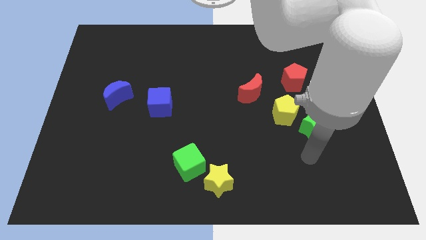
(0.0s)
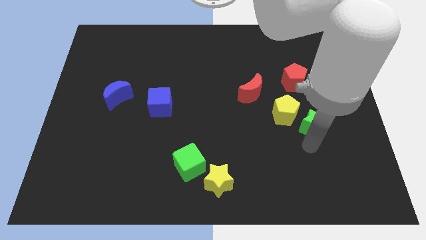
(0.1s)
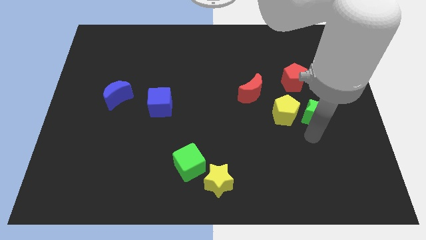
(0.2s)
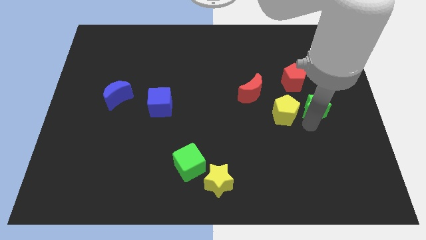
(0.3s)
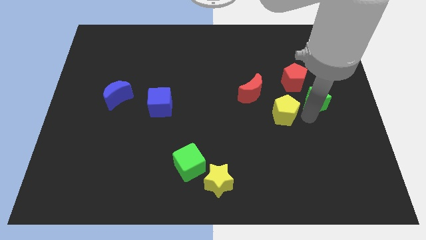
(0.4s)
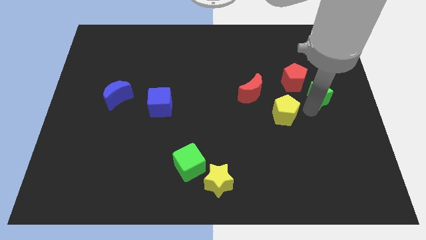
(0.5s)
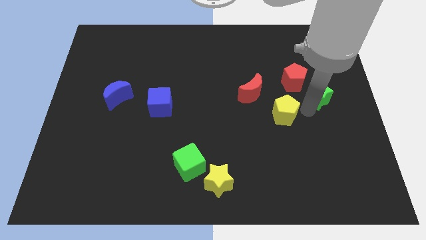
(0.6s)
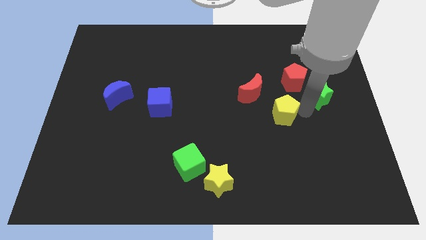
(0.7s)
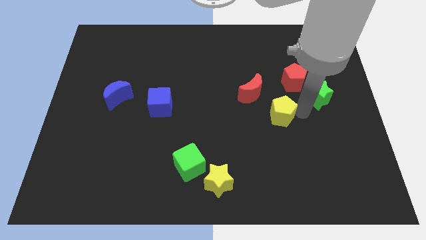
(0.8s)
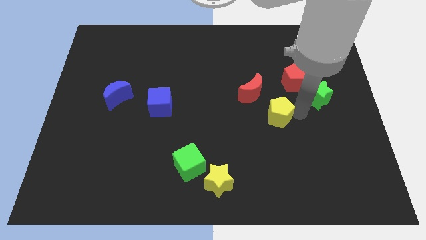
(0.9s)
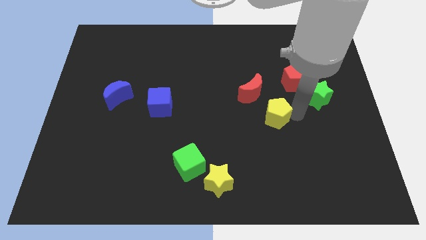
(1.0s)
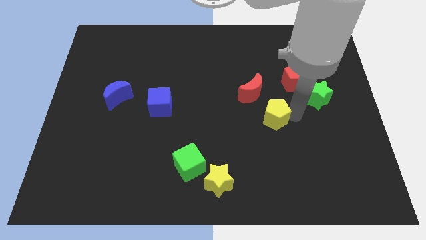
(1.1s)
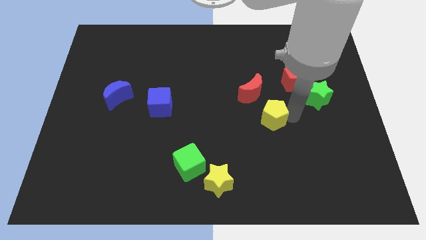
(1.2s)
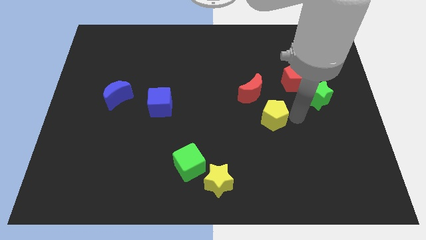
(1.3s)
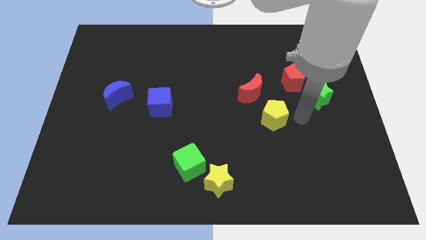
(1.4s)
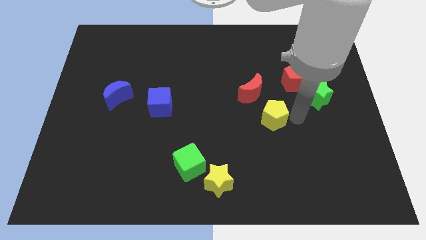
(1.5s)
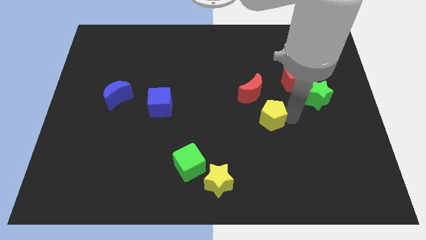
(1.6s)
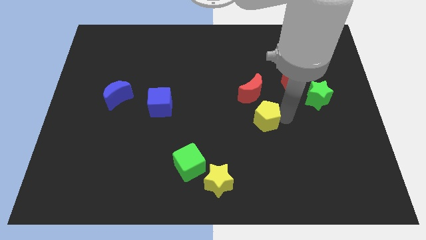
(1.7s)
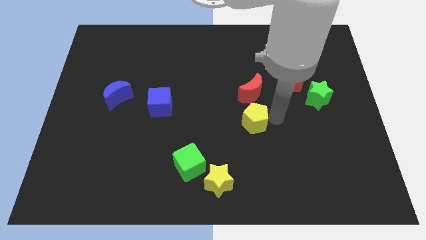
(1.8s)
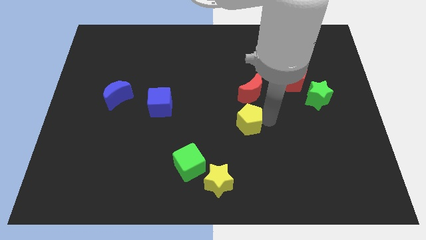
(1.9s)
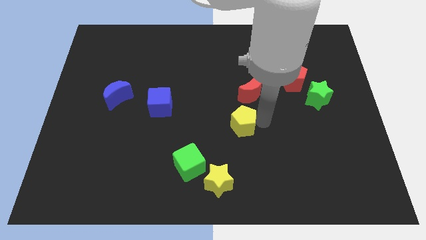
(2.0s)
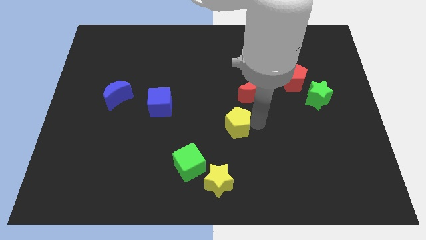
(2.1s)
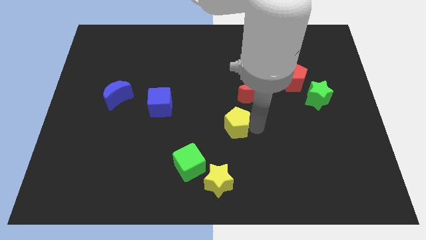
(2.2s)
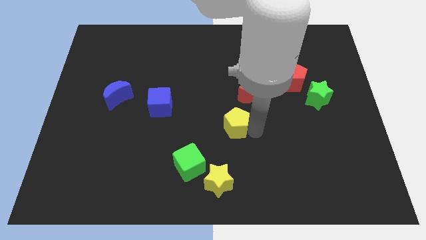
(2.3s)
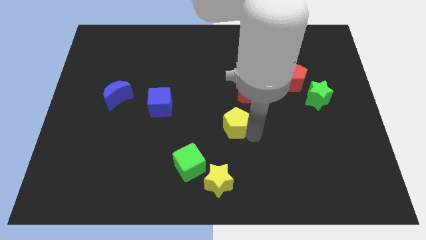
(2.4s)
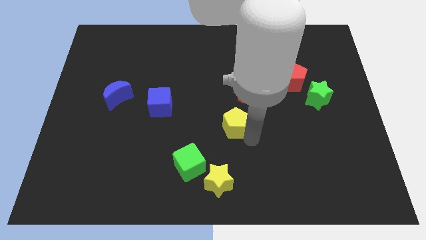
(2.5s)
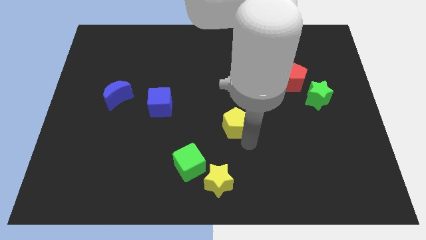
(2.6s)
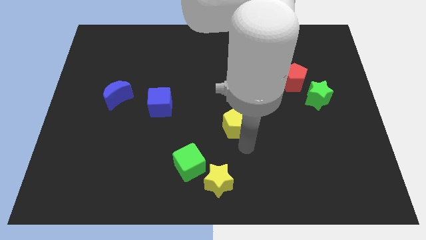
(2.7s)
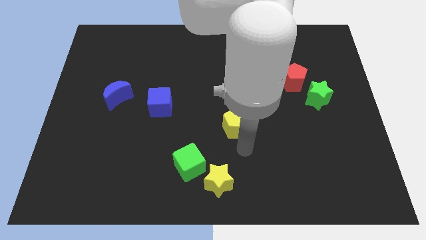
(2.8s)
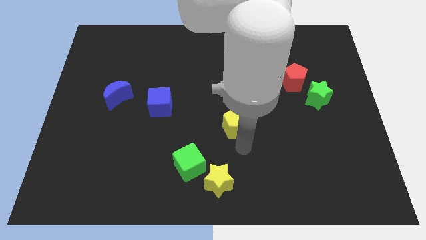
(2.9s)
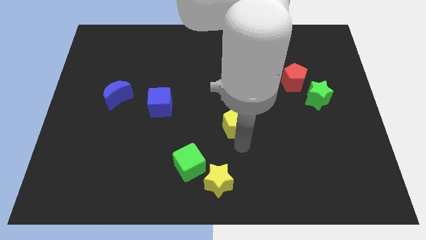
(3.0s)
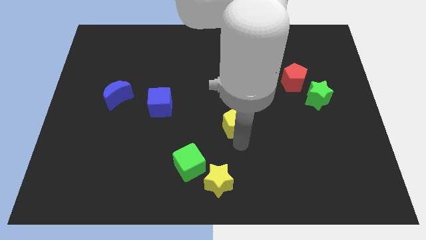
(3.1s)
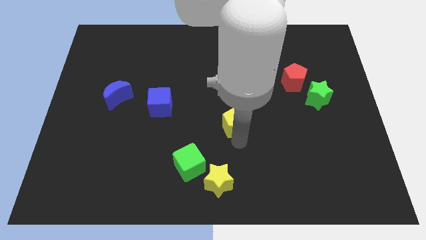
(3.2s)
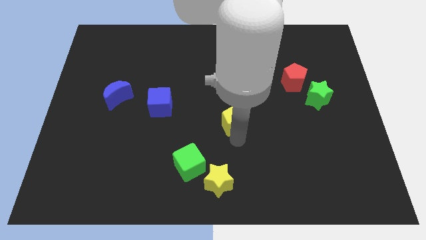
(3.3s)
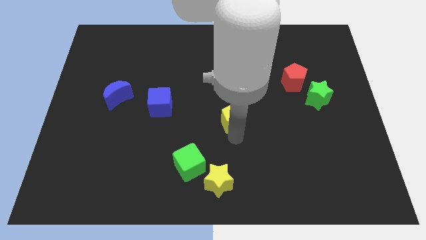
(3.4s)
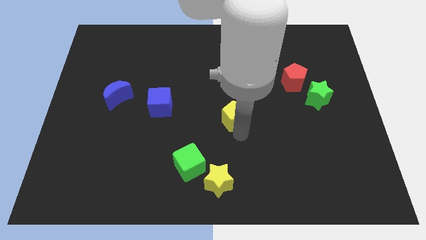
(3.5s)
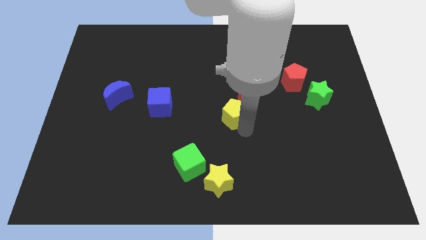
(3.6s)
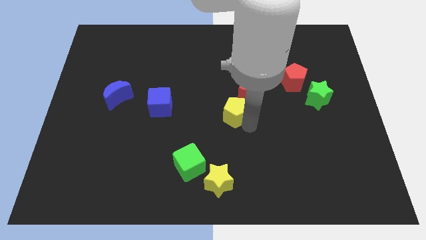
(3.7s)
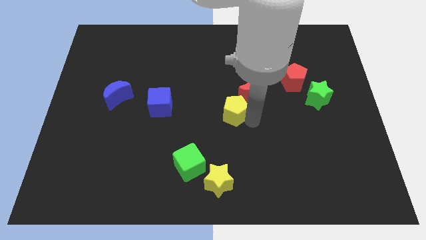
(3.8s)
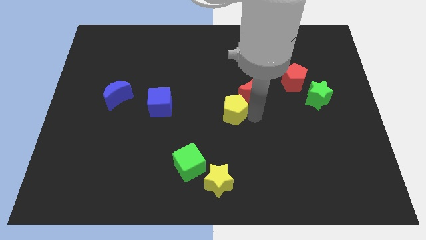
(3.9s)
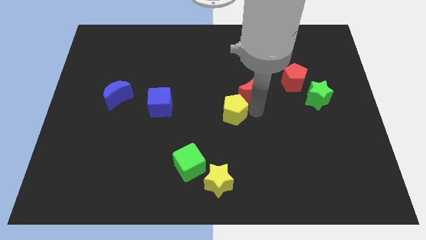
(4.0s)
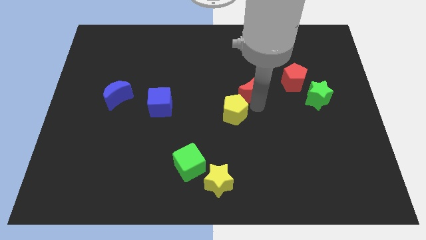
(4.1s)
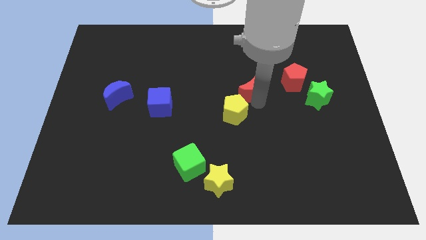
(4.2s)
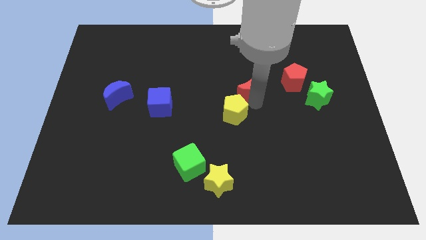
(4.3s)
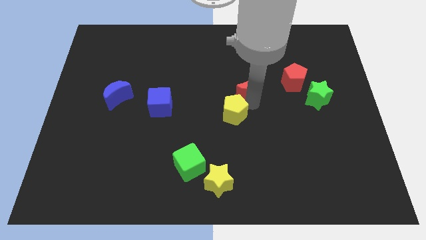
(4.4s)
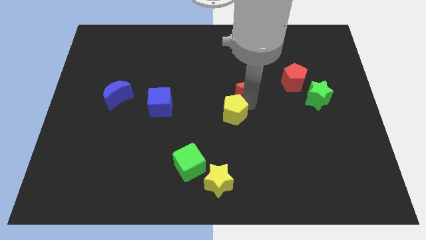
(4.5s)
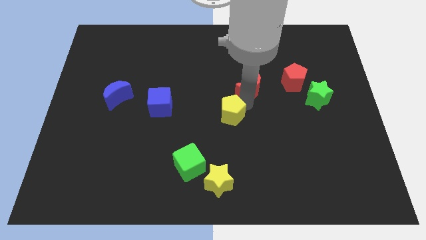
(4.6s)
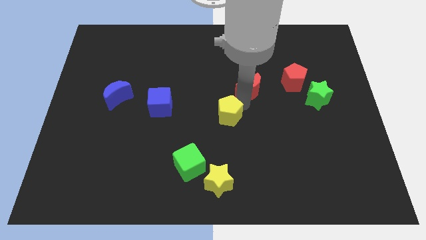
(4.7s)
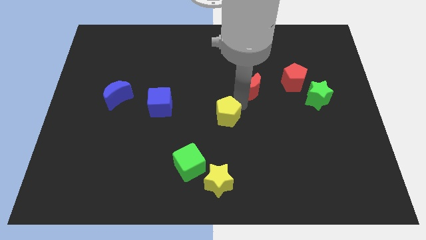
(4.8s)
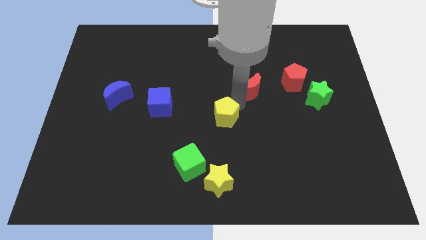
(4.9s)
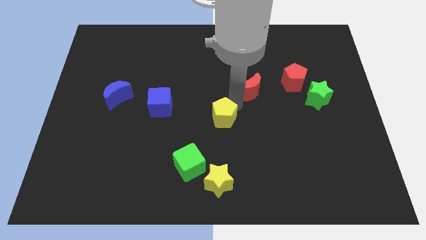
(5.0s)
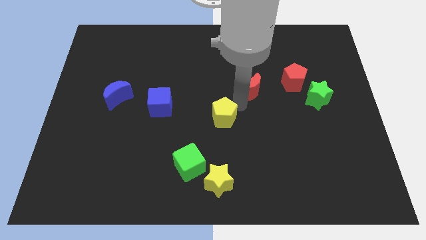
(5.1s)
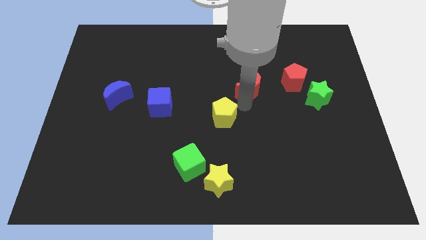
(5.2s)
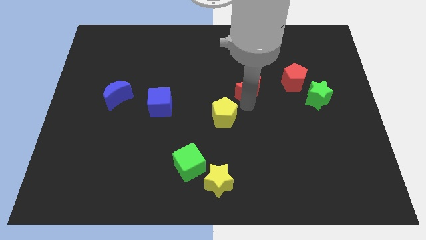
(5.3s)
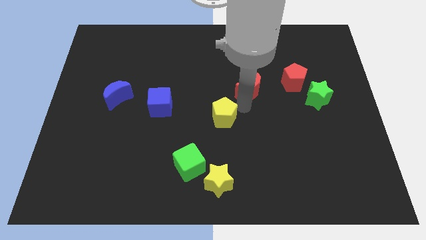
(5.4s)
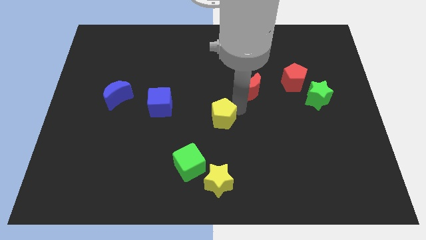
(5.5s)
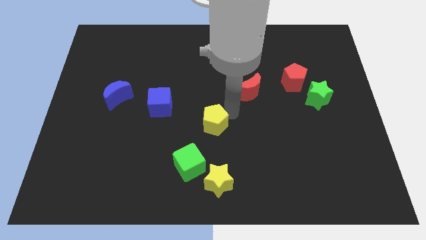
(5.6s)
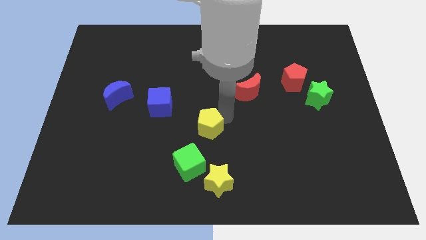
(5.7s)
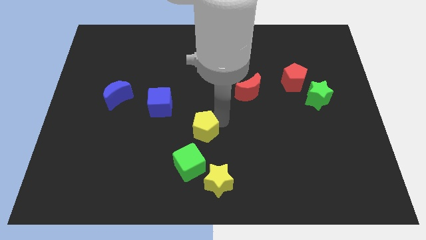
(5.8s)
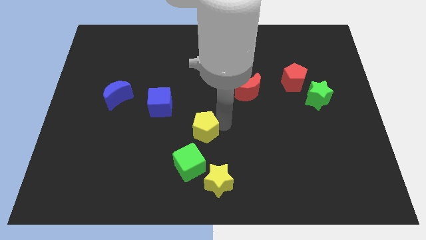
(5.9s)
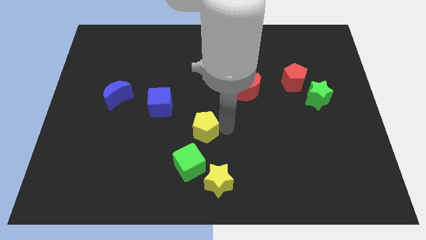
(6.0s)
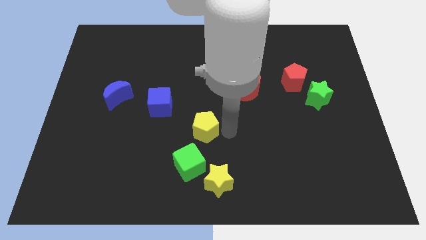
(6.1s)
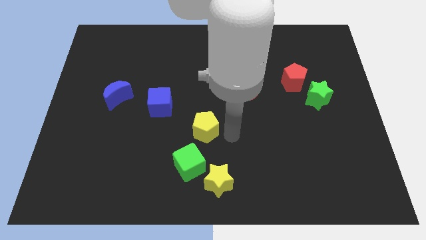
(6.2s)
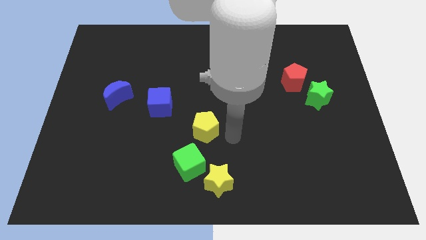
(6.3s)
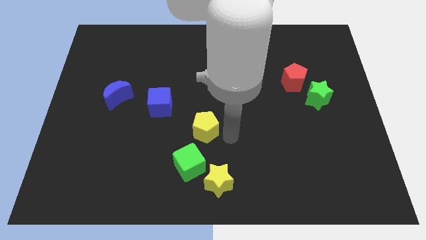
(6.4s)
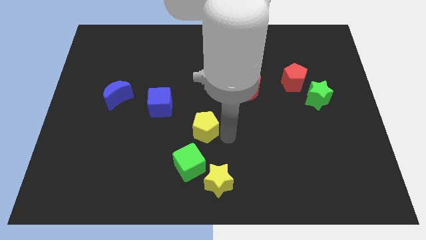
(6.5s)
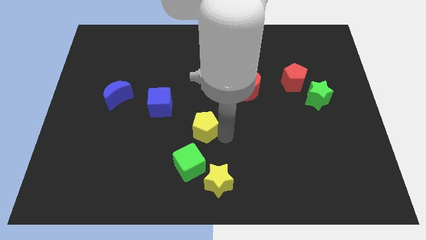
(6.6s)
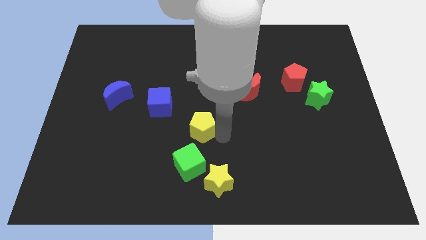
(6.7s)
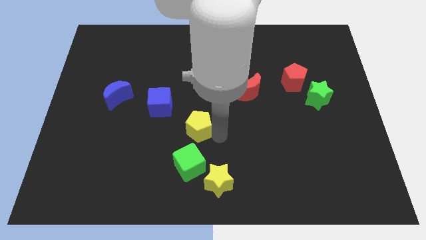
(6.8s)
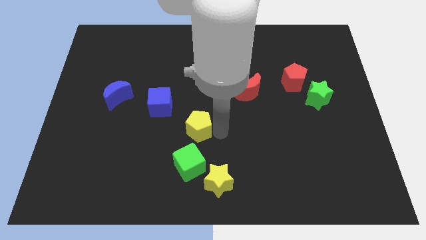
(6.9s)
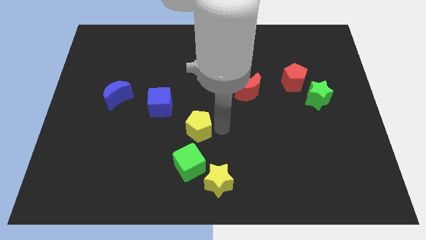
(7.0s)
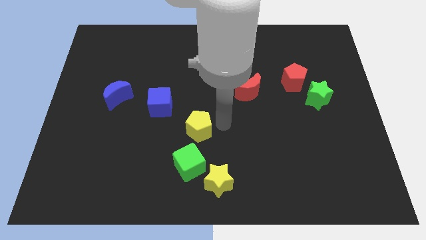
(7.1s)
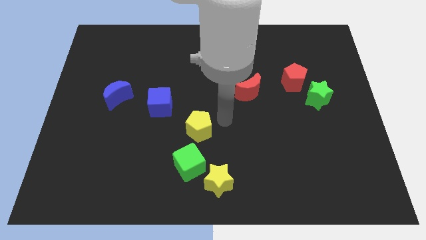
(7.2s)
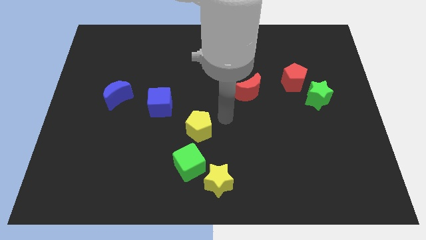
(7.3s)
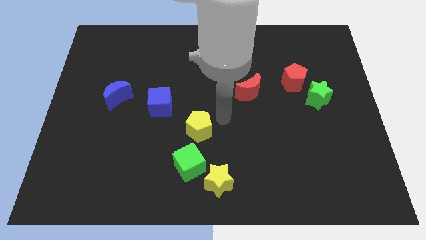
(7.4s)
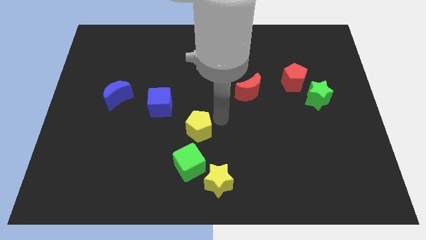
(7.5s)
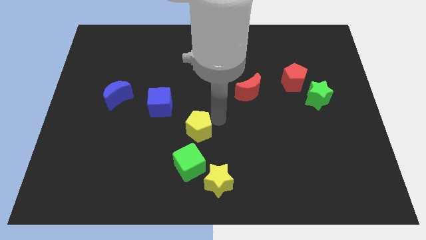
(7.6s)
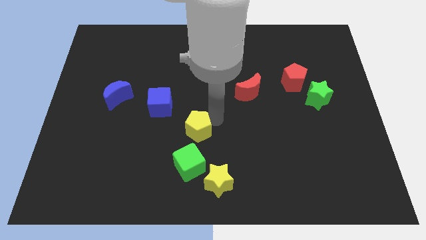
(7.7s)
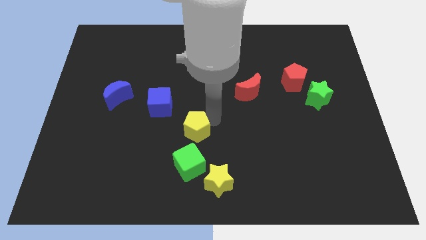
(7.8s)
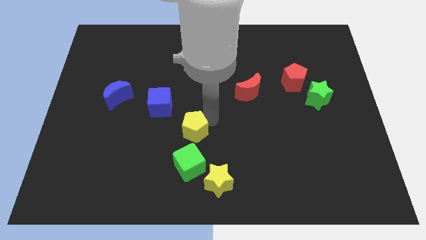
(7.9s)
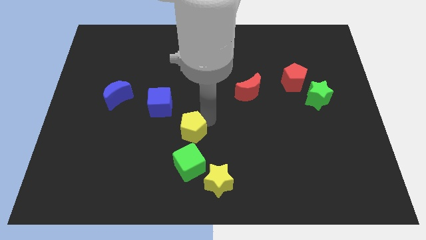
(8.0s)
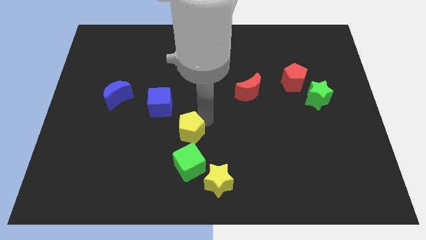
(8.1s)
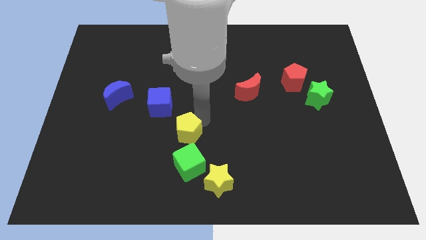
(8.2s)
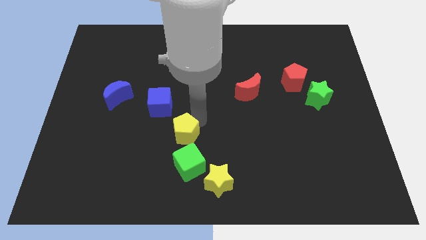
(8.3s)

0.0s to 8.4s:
push the yellow pentagon diagonally up and to the left of the green cube
